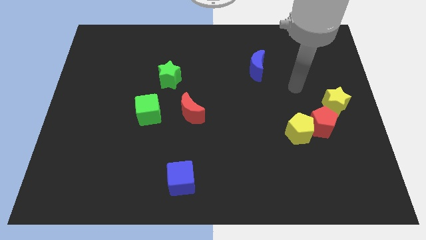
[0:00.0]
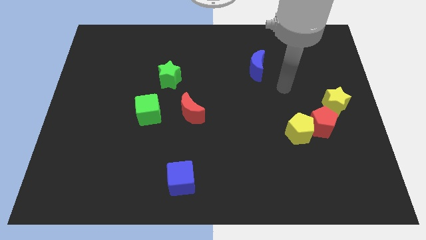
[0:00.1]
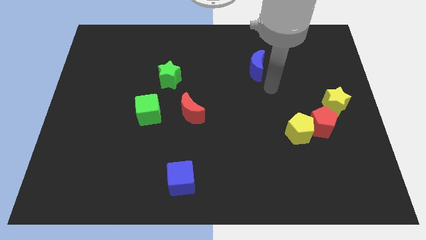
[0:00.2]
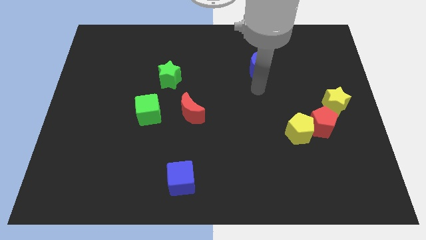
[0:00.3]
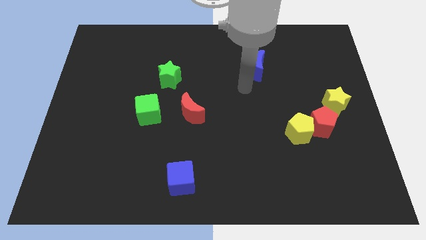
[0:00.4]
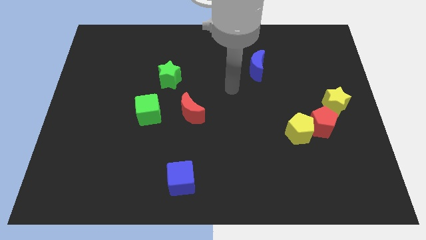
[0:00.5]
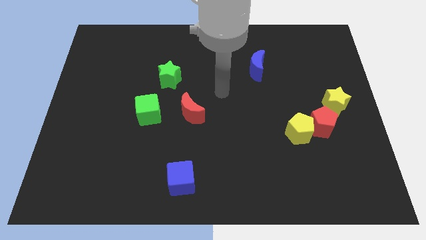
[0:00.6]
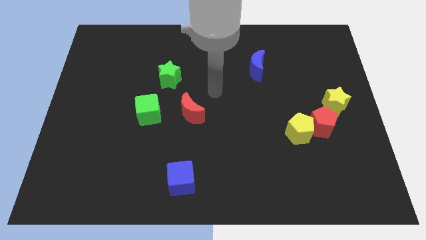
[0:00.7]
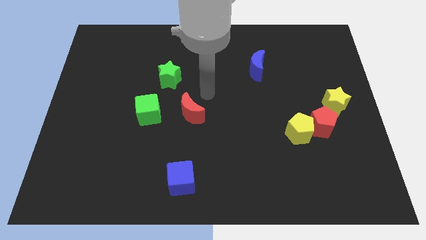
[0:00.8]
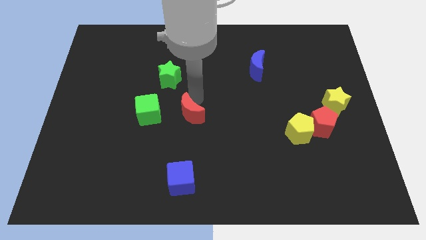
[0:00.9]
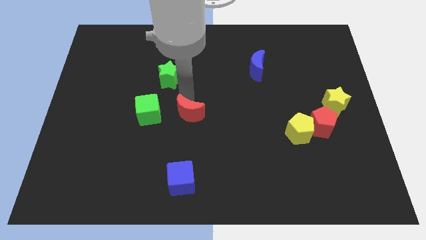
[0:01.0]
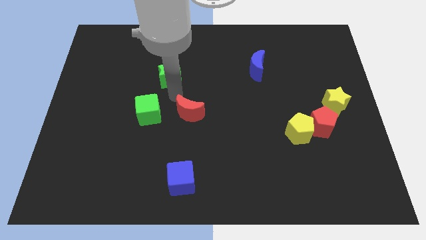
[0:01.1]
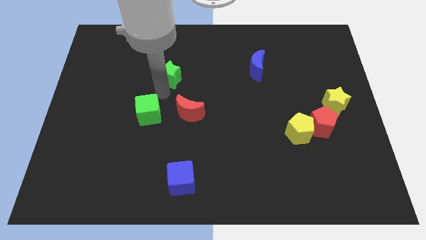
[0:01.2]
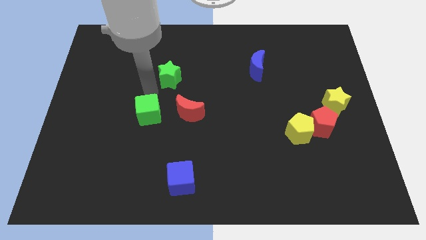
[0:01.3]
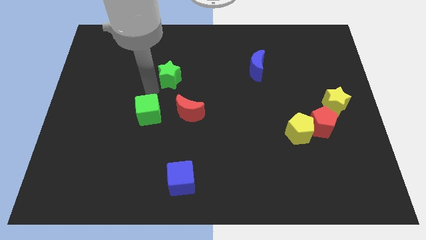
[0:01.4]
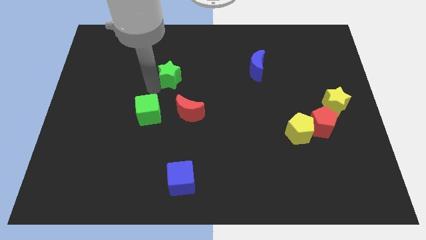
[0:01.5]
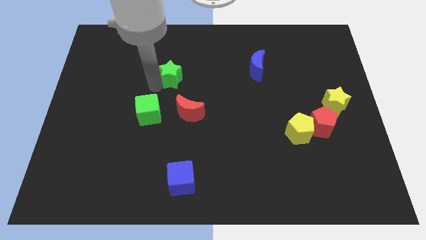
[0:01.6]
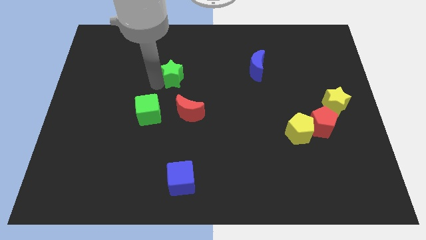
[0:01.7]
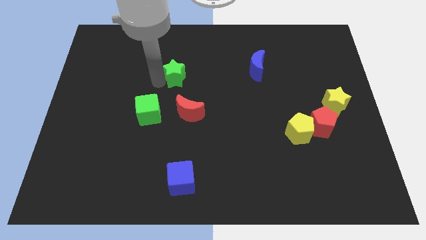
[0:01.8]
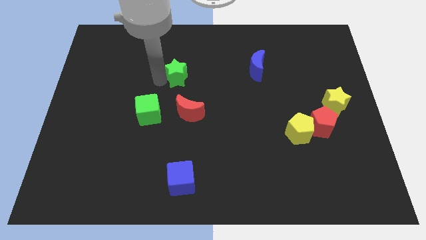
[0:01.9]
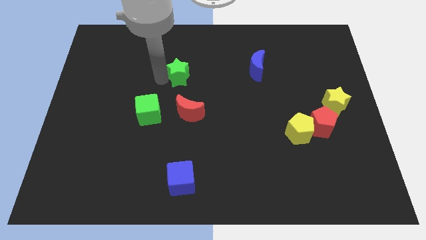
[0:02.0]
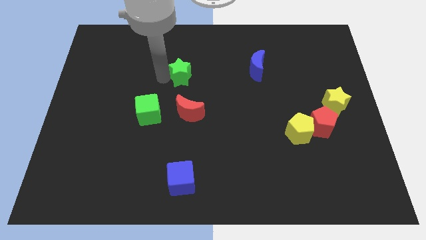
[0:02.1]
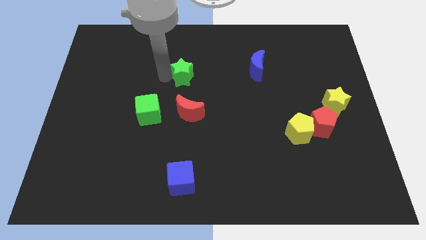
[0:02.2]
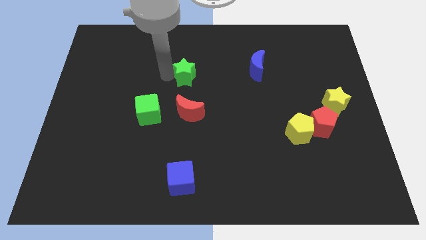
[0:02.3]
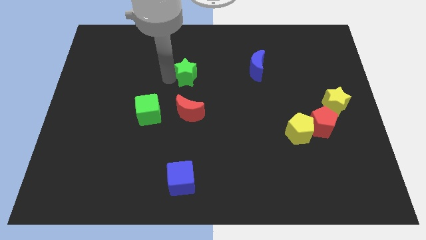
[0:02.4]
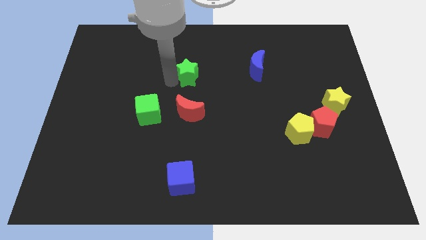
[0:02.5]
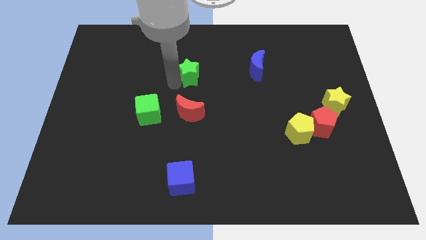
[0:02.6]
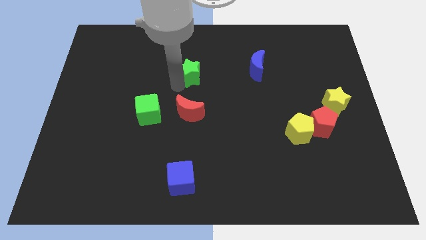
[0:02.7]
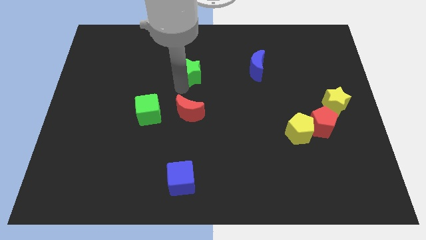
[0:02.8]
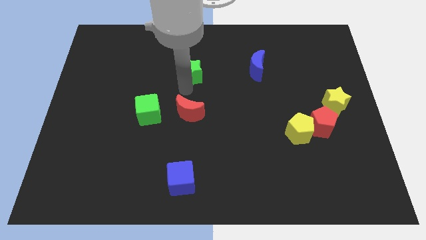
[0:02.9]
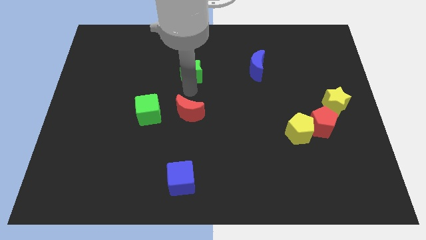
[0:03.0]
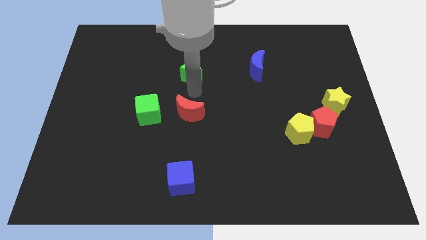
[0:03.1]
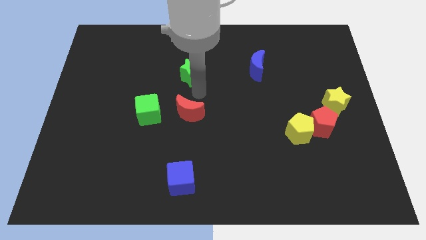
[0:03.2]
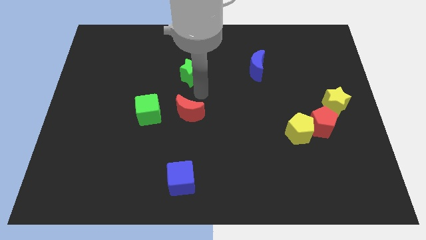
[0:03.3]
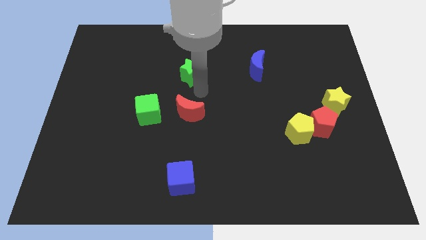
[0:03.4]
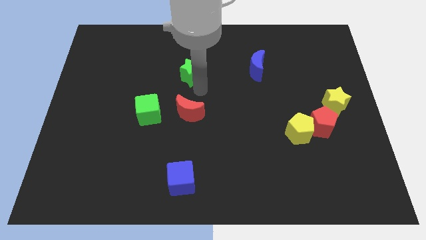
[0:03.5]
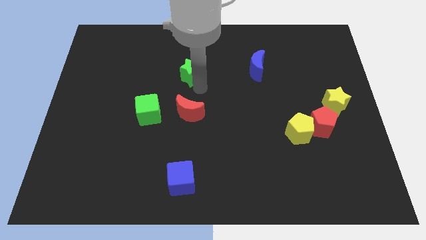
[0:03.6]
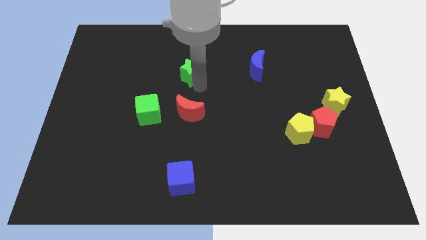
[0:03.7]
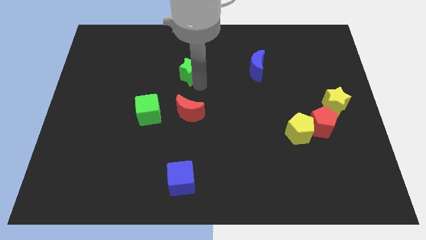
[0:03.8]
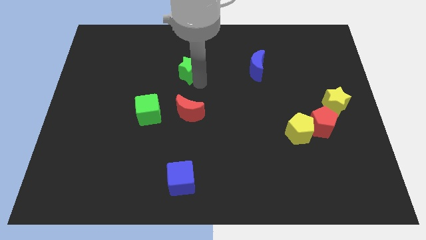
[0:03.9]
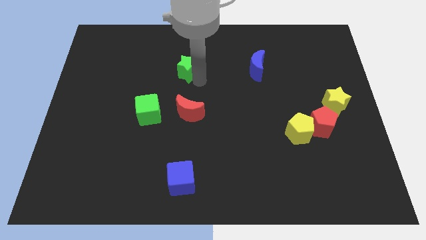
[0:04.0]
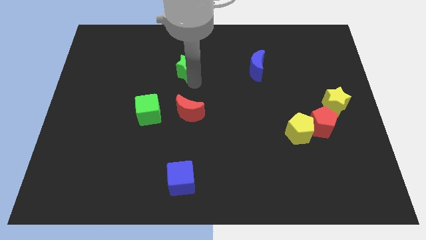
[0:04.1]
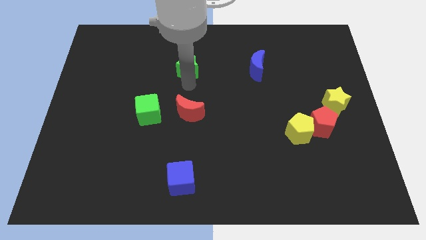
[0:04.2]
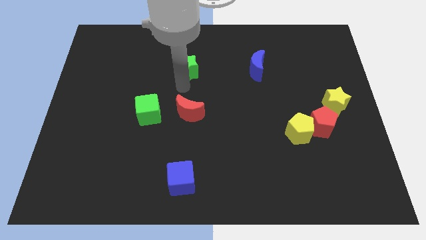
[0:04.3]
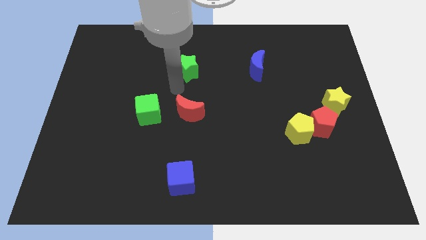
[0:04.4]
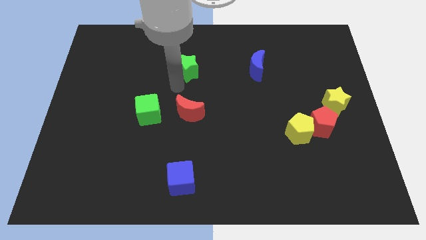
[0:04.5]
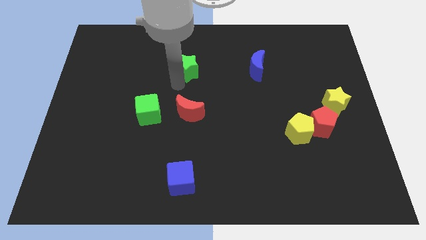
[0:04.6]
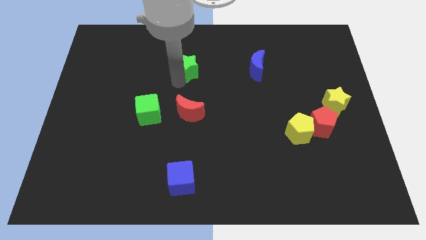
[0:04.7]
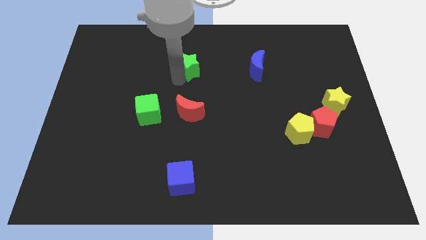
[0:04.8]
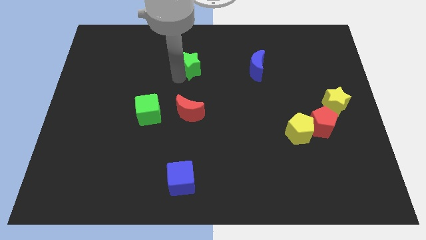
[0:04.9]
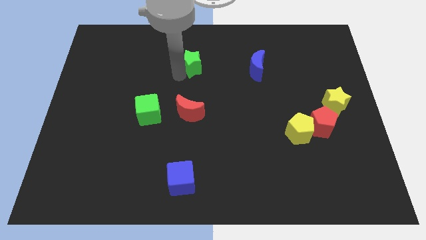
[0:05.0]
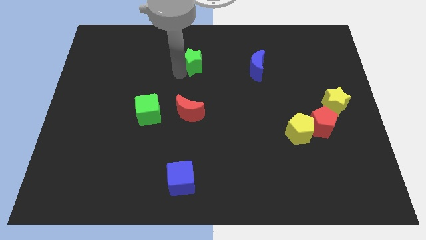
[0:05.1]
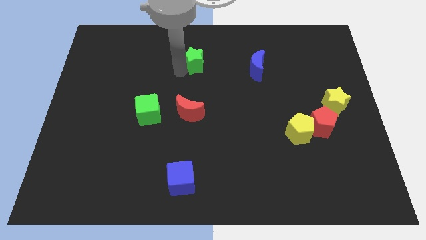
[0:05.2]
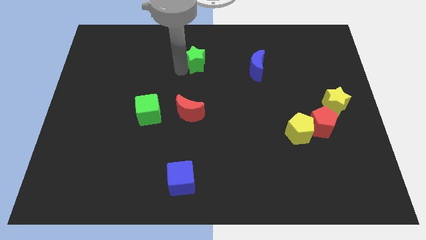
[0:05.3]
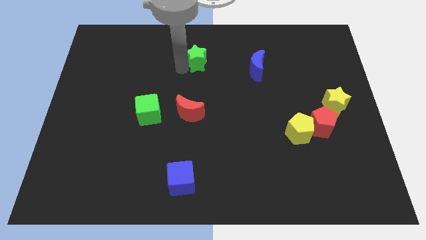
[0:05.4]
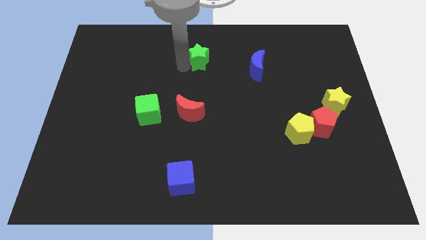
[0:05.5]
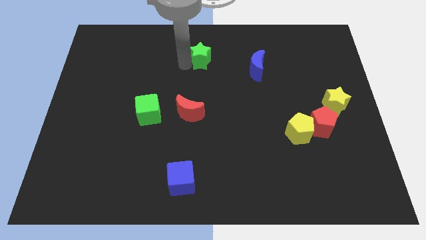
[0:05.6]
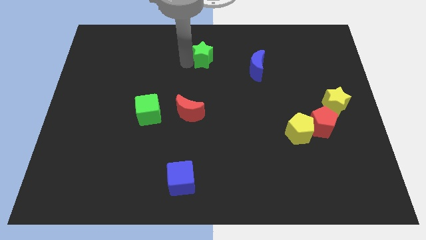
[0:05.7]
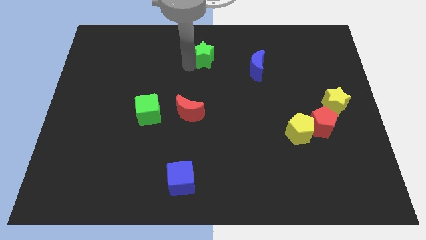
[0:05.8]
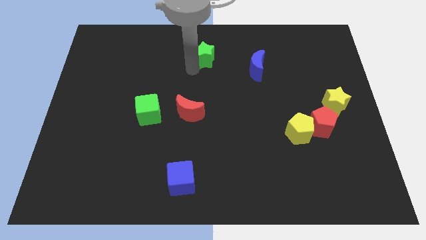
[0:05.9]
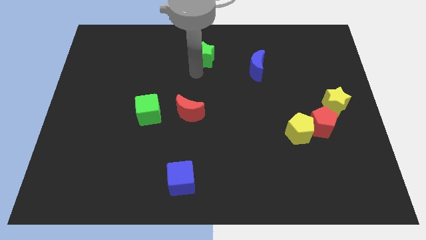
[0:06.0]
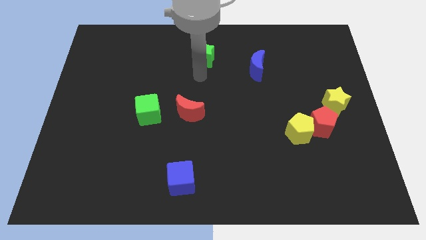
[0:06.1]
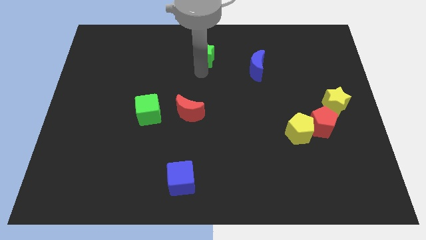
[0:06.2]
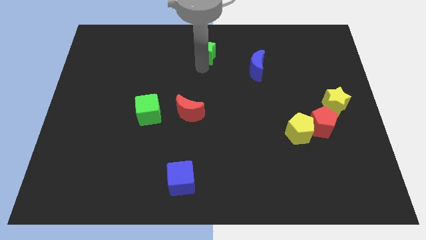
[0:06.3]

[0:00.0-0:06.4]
move the green star to the top
